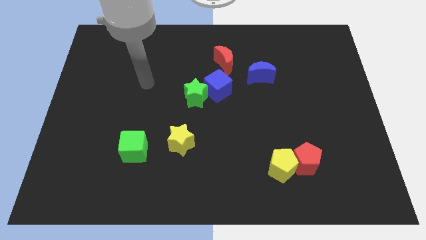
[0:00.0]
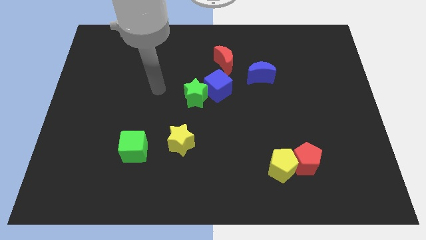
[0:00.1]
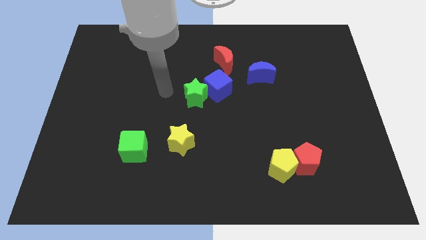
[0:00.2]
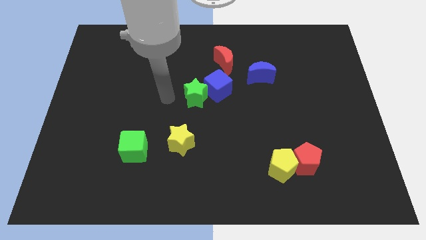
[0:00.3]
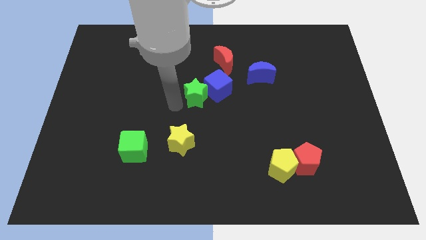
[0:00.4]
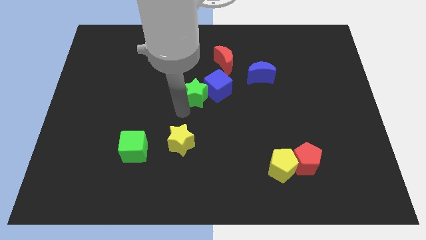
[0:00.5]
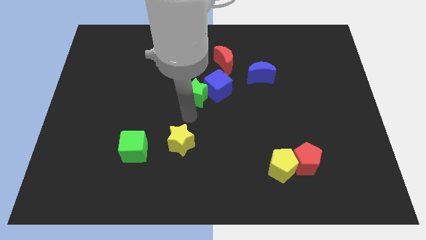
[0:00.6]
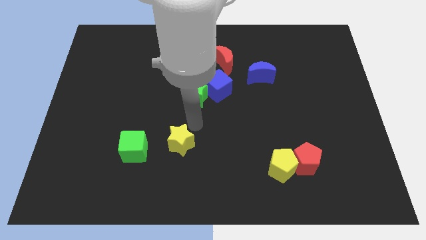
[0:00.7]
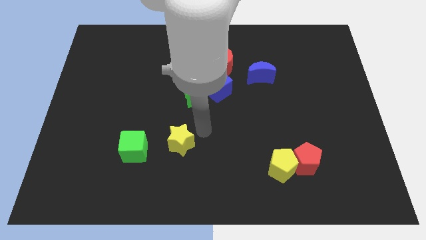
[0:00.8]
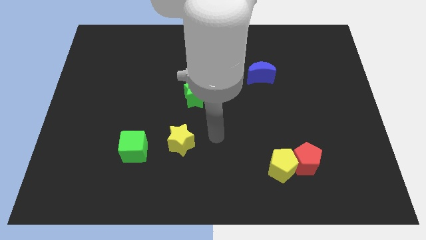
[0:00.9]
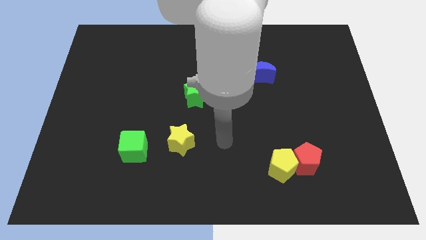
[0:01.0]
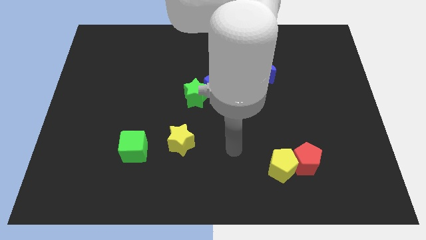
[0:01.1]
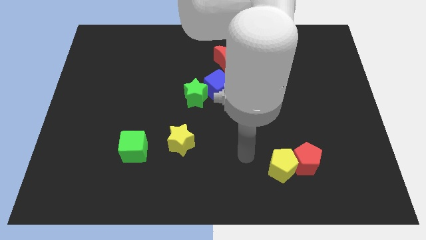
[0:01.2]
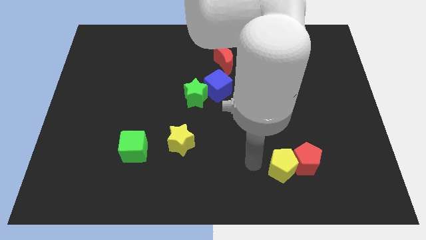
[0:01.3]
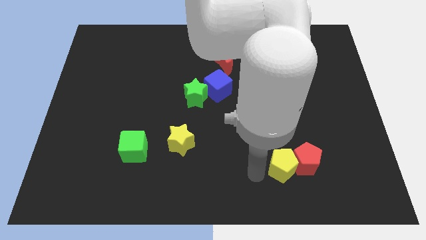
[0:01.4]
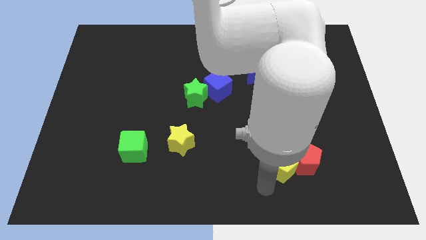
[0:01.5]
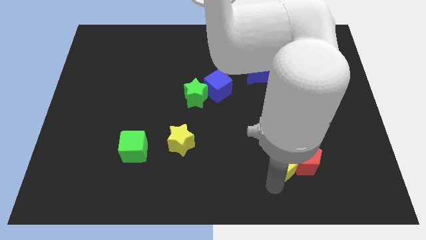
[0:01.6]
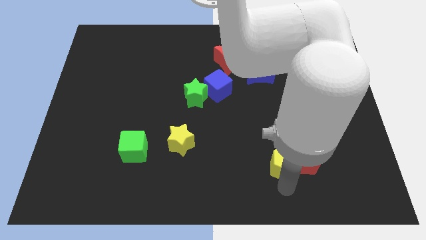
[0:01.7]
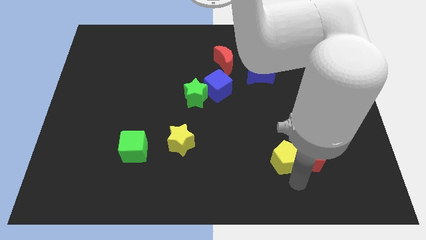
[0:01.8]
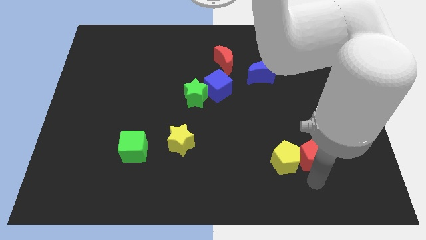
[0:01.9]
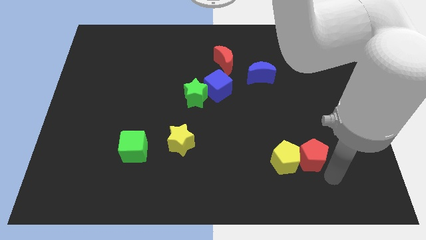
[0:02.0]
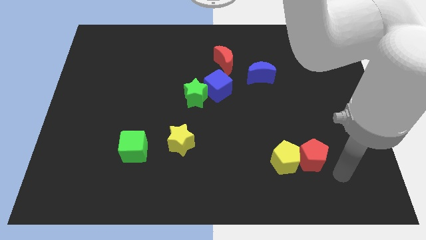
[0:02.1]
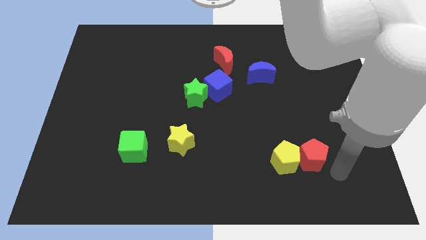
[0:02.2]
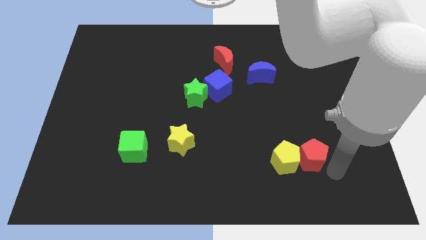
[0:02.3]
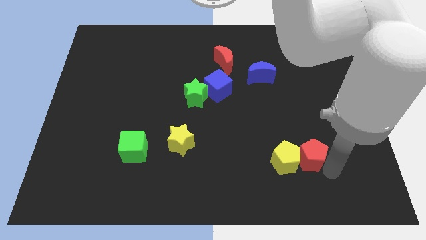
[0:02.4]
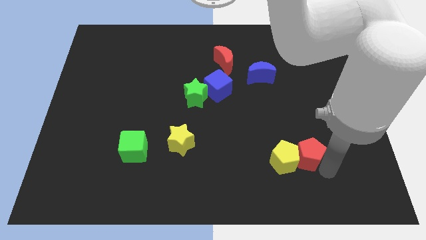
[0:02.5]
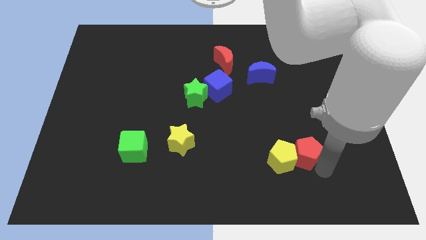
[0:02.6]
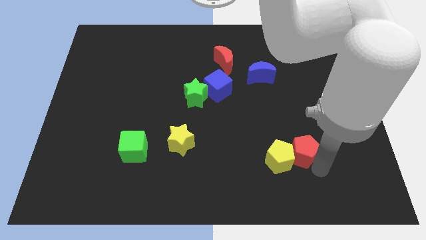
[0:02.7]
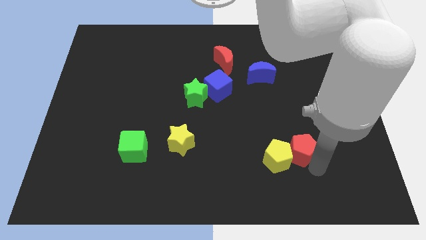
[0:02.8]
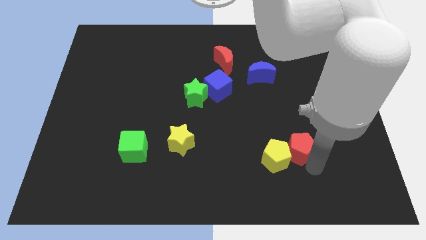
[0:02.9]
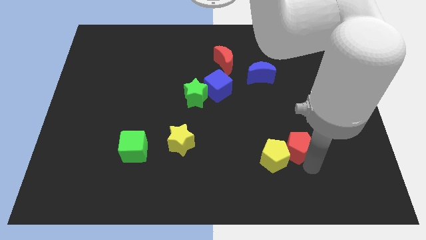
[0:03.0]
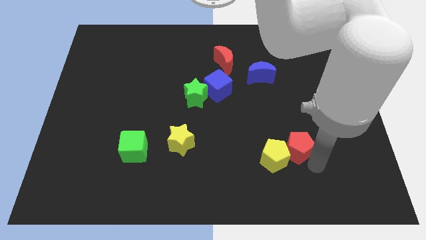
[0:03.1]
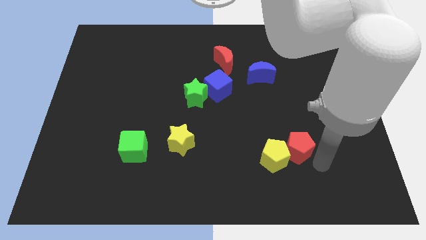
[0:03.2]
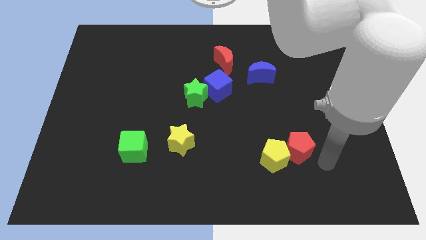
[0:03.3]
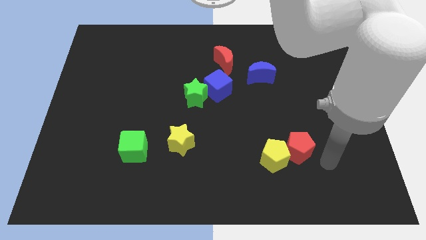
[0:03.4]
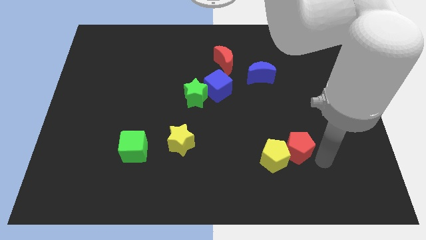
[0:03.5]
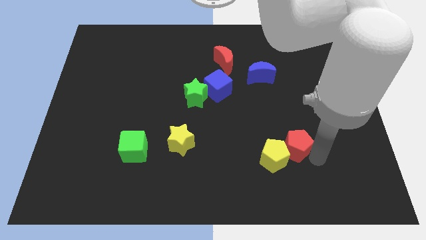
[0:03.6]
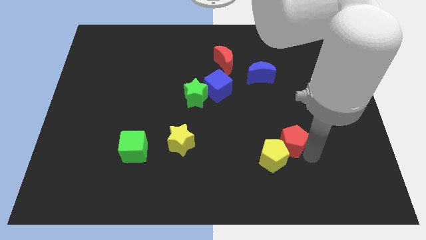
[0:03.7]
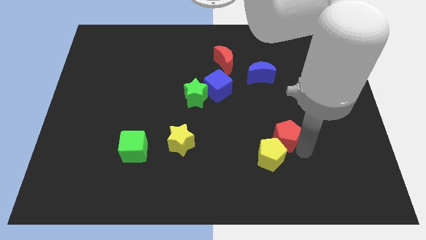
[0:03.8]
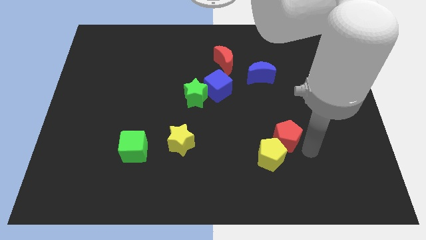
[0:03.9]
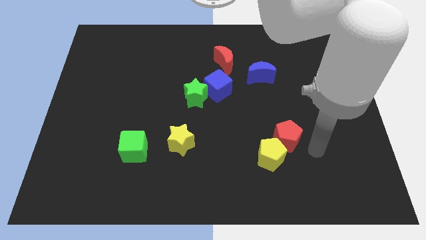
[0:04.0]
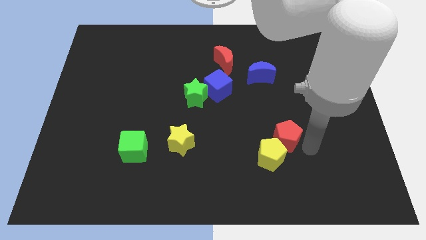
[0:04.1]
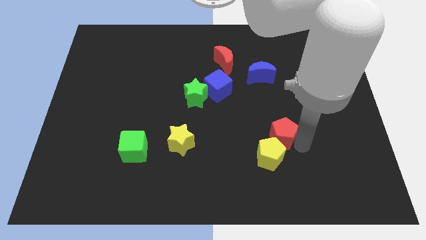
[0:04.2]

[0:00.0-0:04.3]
slightly move the red pentagon up and then left

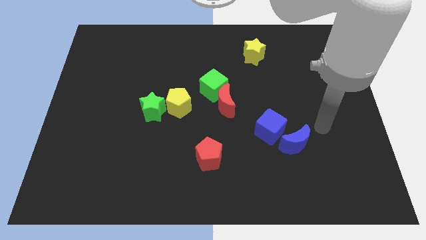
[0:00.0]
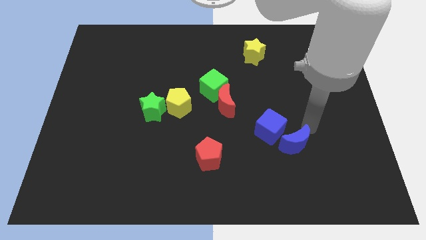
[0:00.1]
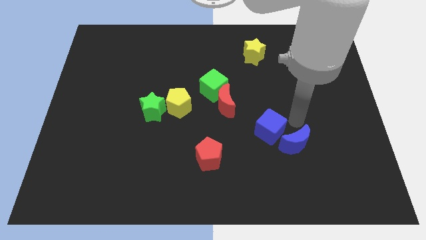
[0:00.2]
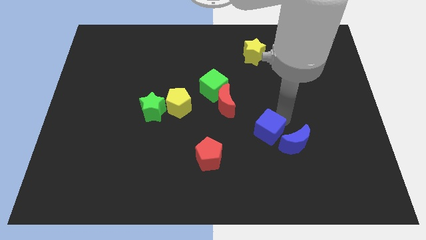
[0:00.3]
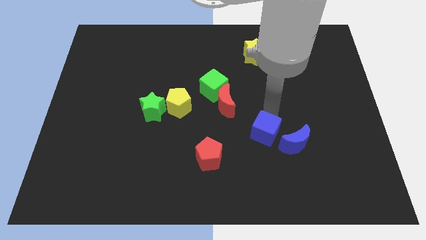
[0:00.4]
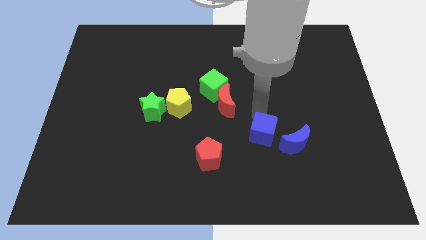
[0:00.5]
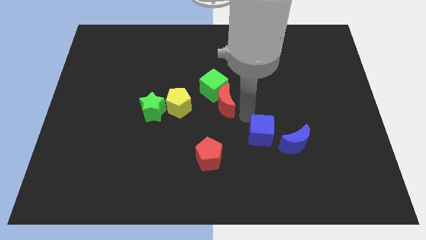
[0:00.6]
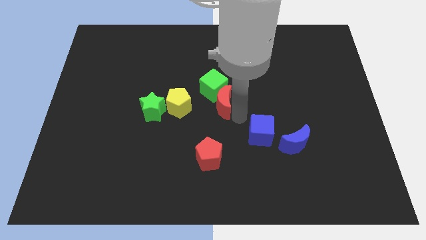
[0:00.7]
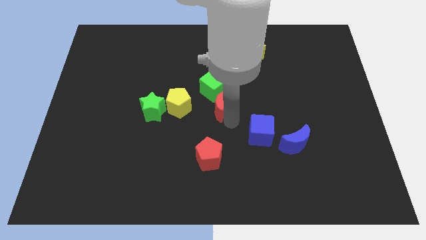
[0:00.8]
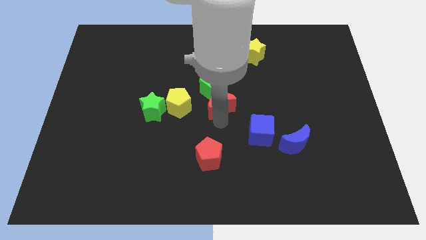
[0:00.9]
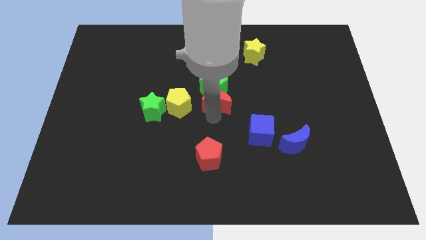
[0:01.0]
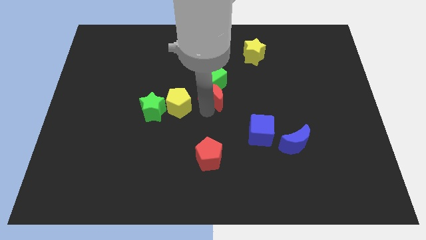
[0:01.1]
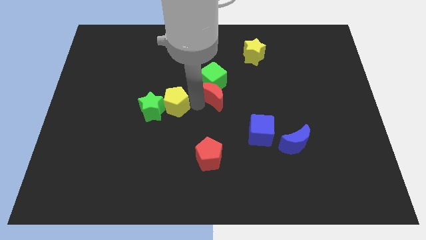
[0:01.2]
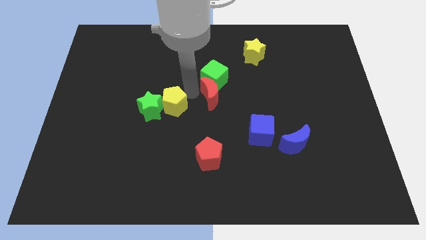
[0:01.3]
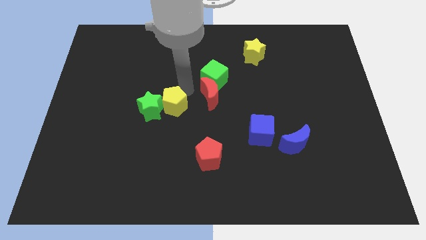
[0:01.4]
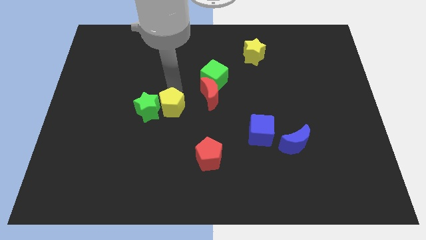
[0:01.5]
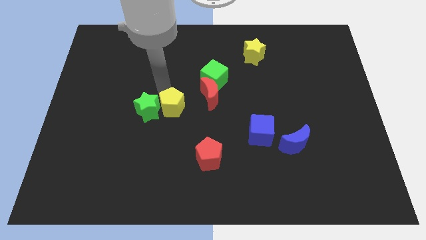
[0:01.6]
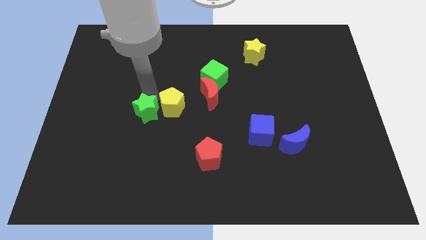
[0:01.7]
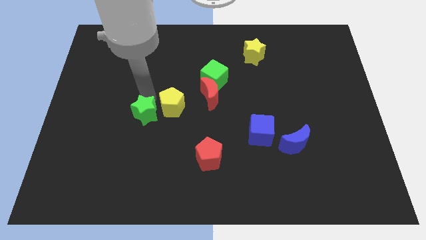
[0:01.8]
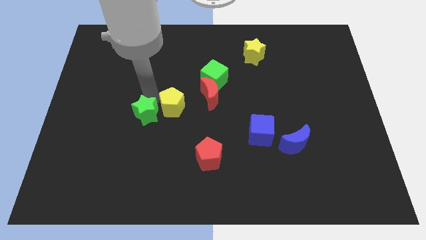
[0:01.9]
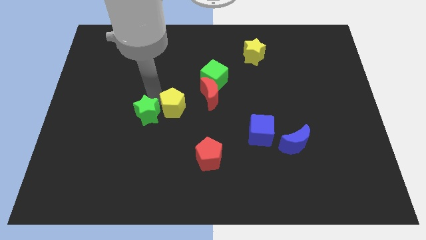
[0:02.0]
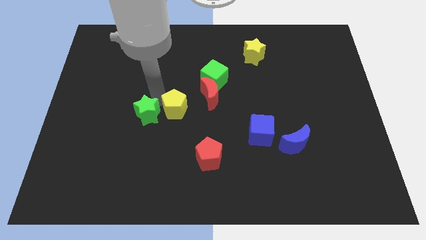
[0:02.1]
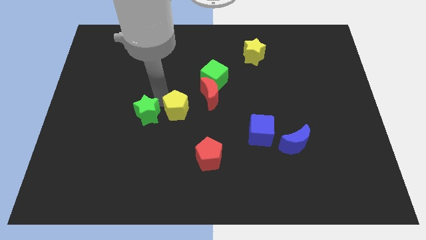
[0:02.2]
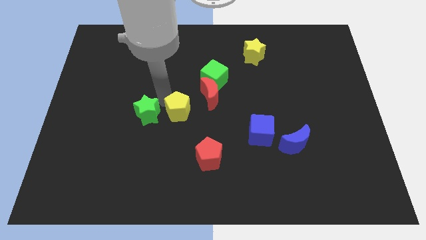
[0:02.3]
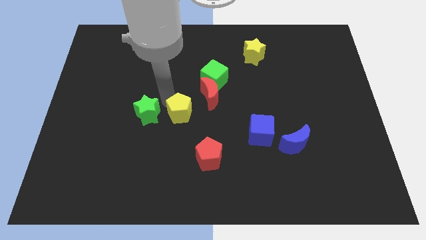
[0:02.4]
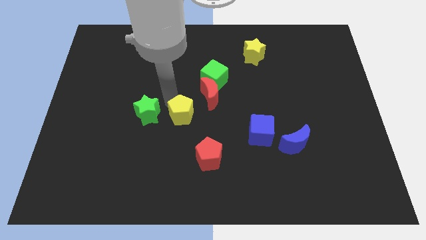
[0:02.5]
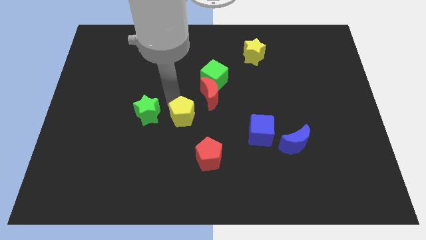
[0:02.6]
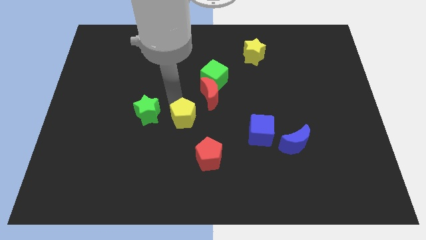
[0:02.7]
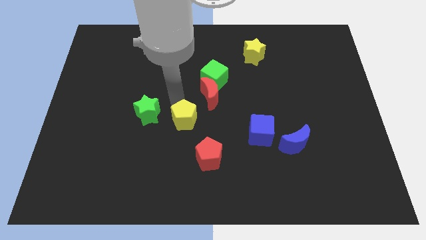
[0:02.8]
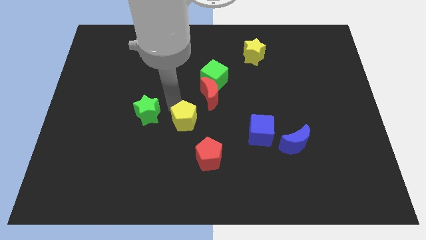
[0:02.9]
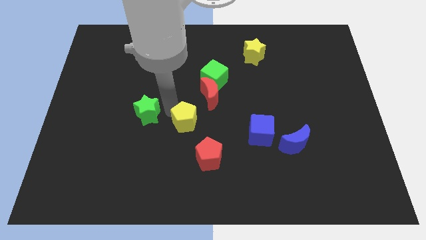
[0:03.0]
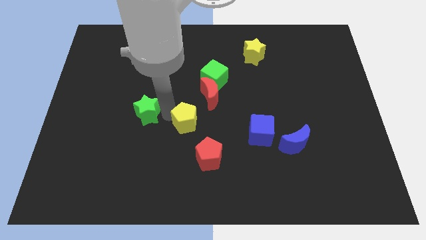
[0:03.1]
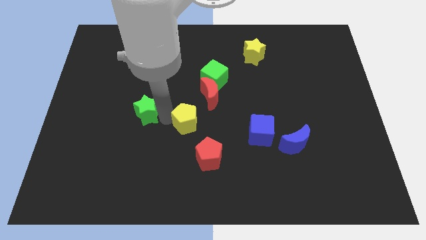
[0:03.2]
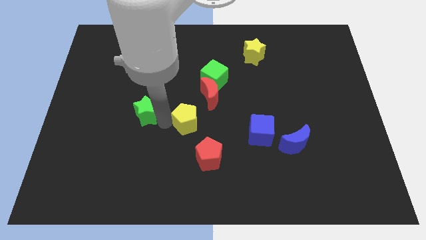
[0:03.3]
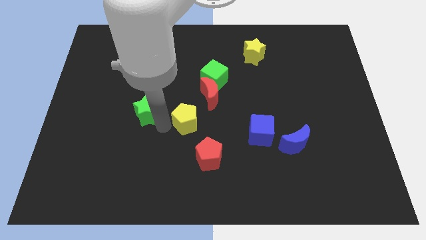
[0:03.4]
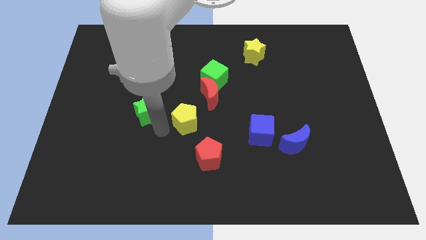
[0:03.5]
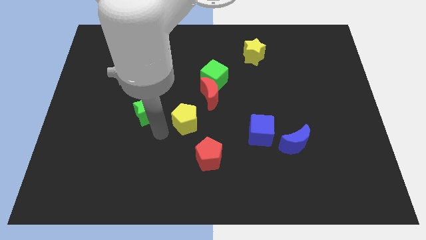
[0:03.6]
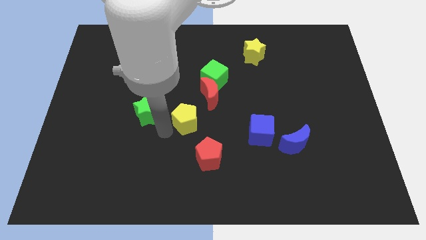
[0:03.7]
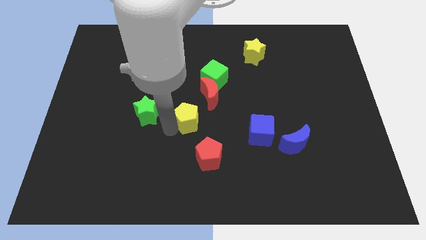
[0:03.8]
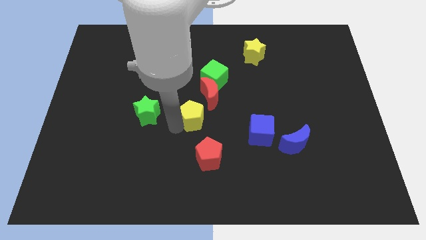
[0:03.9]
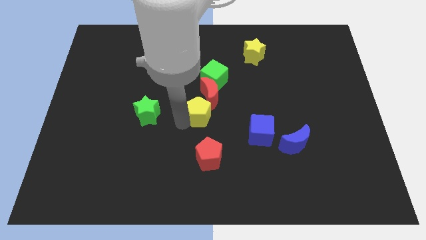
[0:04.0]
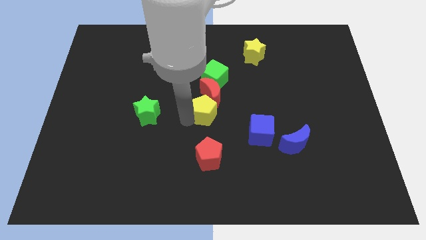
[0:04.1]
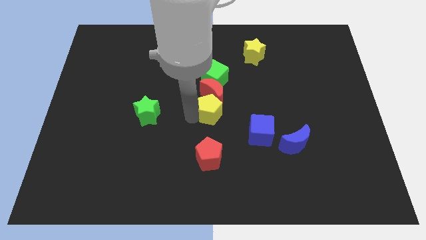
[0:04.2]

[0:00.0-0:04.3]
slightly push the yellow pentagon right
